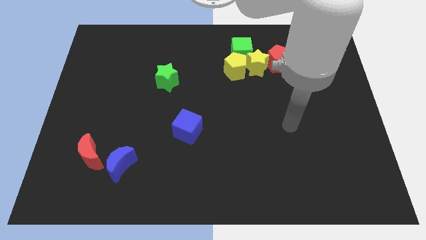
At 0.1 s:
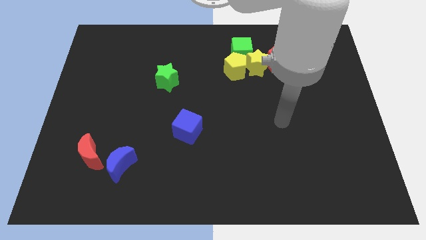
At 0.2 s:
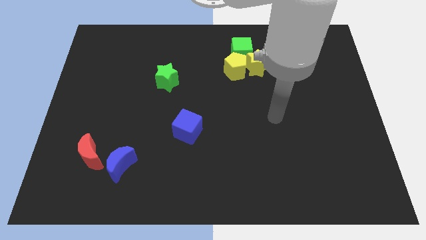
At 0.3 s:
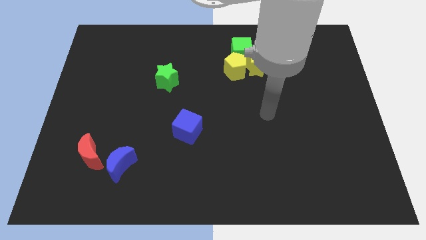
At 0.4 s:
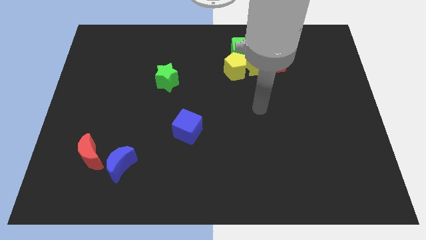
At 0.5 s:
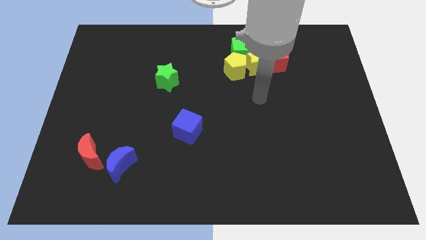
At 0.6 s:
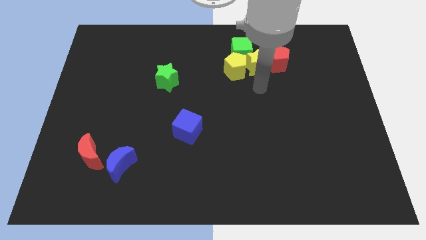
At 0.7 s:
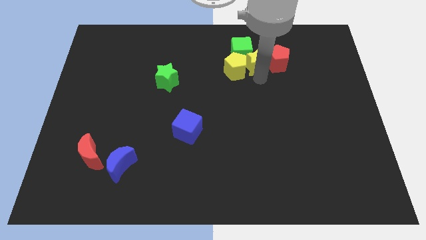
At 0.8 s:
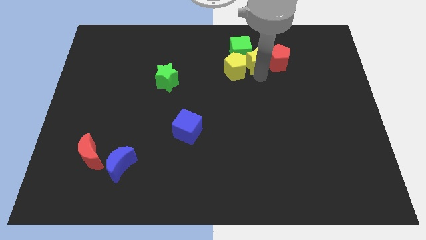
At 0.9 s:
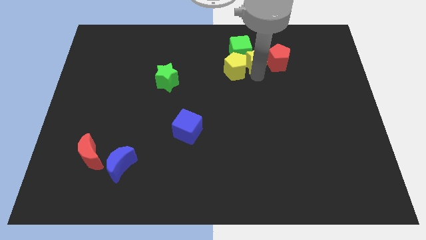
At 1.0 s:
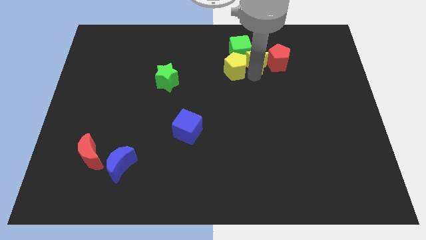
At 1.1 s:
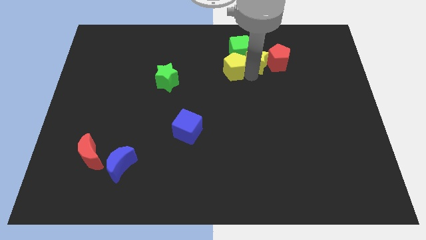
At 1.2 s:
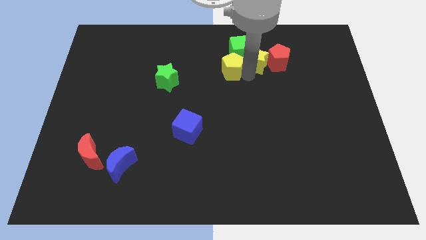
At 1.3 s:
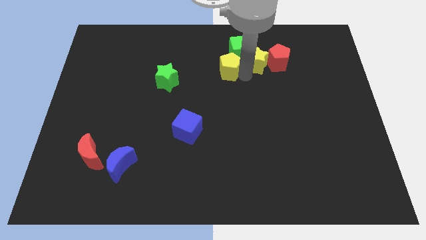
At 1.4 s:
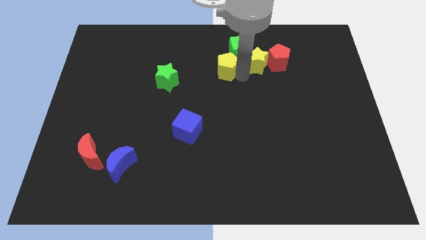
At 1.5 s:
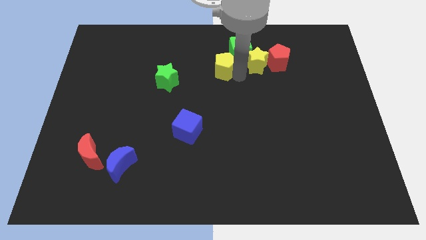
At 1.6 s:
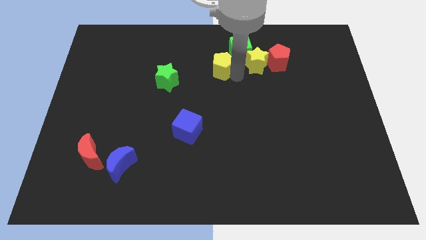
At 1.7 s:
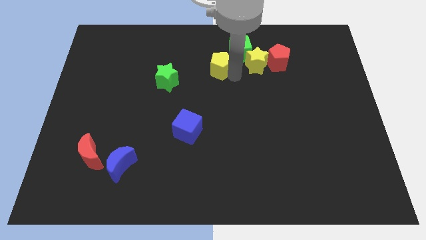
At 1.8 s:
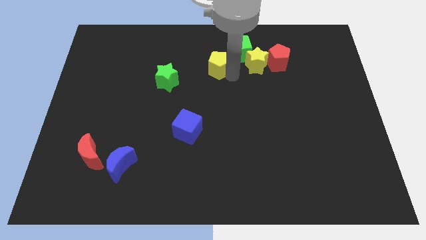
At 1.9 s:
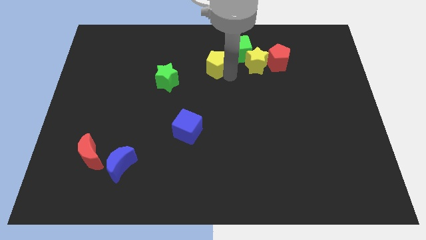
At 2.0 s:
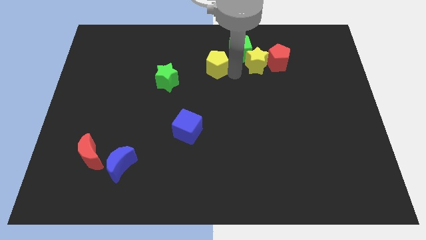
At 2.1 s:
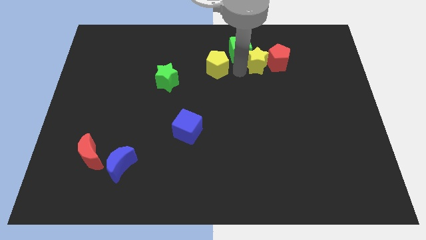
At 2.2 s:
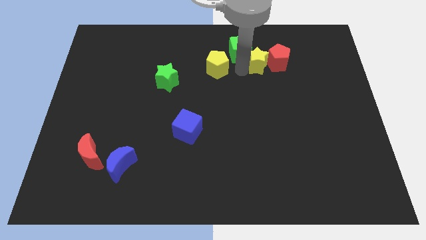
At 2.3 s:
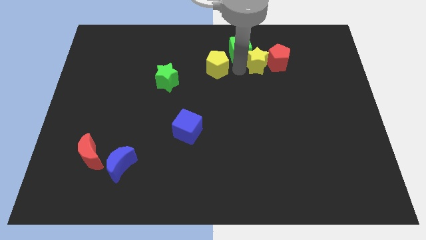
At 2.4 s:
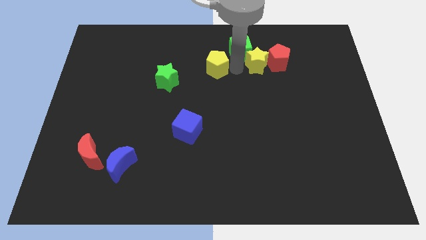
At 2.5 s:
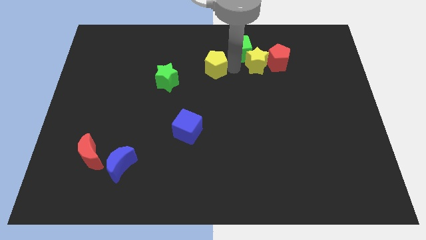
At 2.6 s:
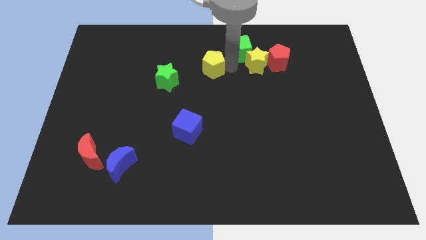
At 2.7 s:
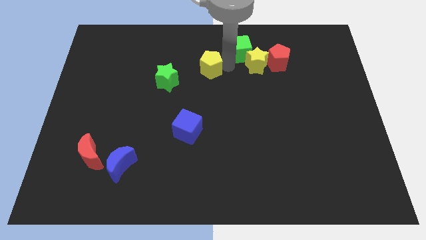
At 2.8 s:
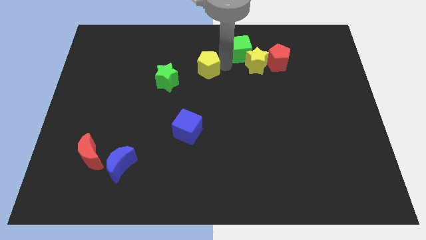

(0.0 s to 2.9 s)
move the yellow pentagon a little bit to the left

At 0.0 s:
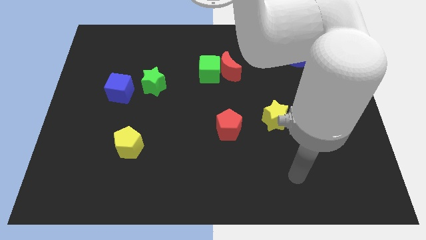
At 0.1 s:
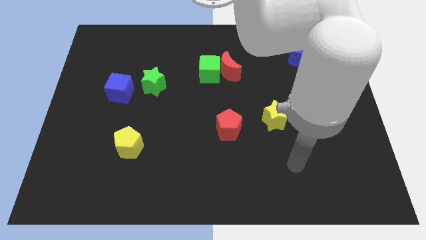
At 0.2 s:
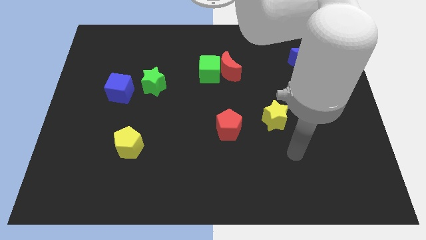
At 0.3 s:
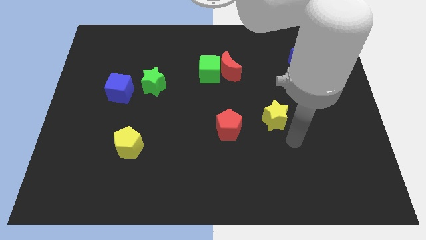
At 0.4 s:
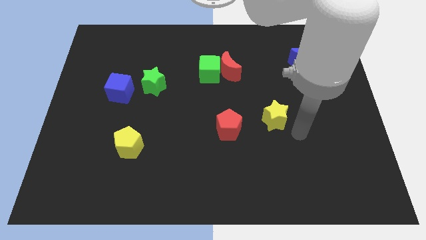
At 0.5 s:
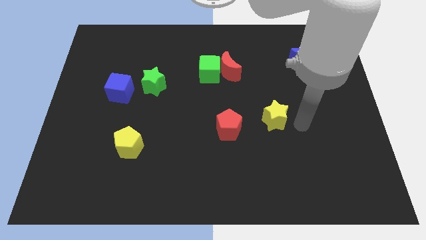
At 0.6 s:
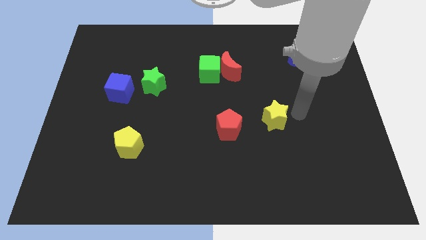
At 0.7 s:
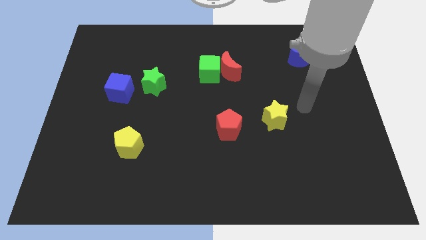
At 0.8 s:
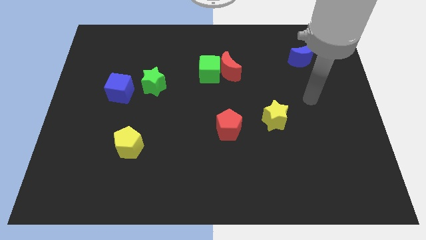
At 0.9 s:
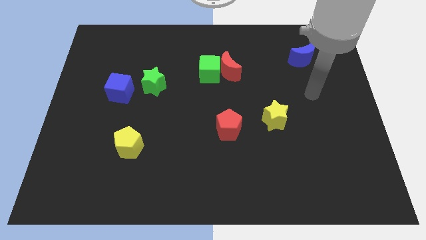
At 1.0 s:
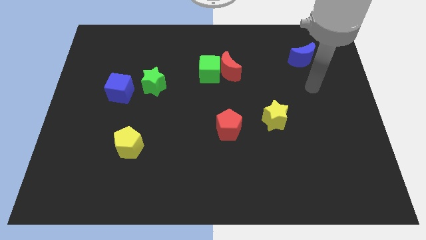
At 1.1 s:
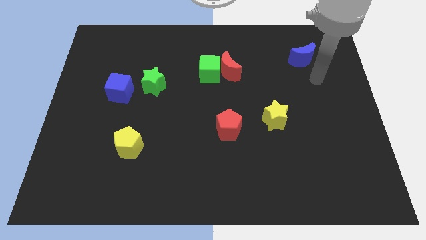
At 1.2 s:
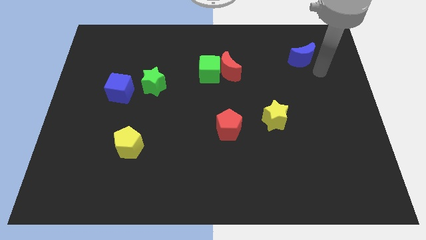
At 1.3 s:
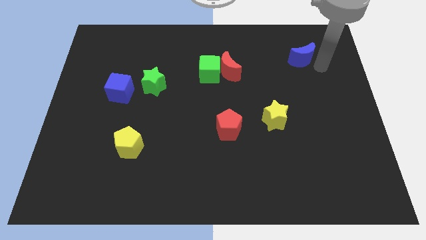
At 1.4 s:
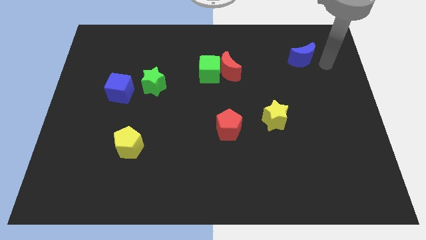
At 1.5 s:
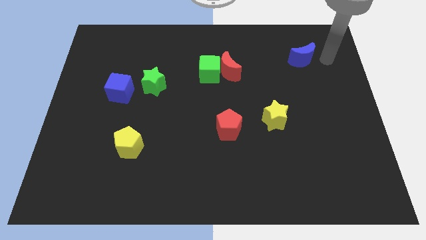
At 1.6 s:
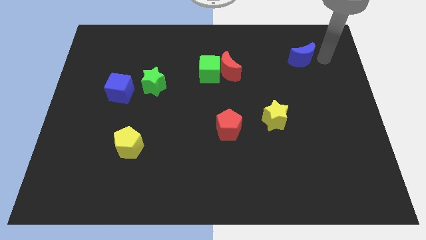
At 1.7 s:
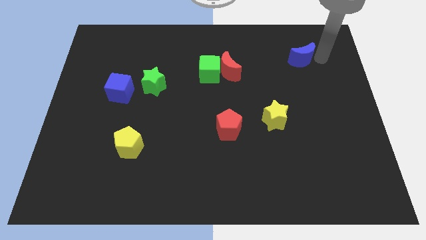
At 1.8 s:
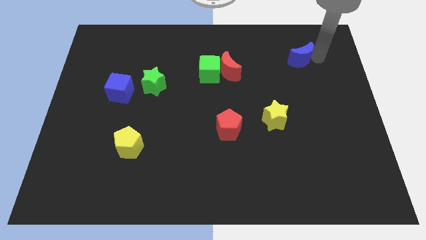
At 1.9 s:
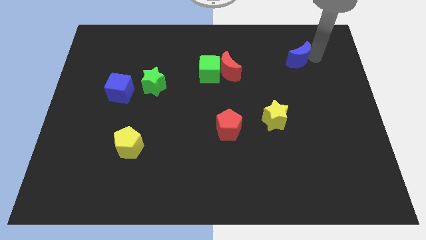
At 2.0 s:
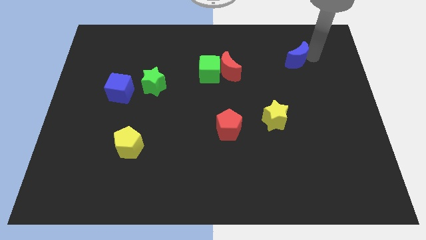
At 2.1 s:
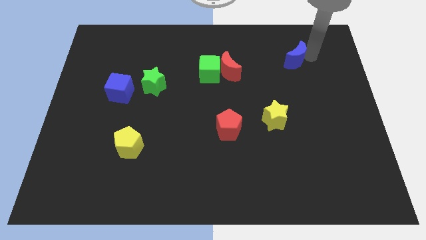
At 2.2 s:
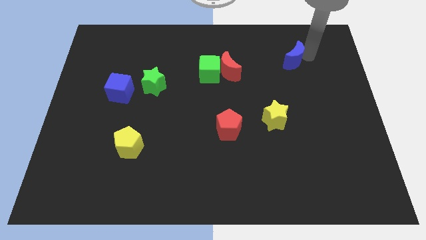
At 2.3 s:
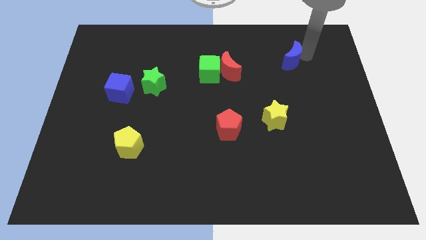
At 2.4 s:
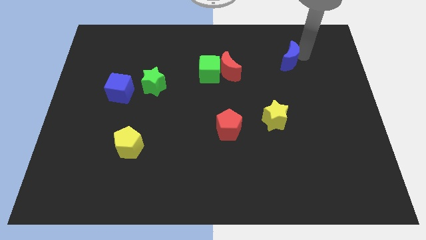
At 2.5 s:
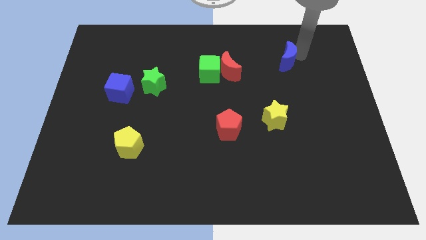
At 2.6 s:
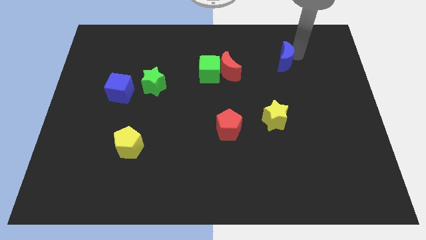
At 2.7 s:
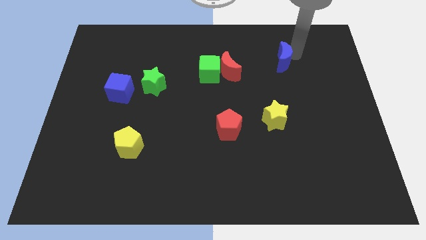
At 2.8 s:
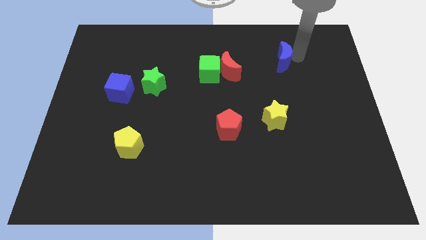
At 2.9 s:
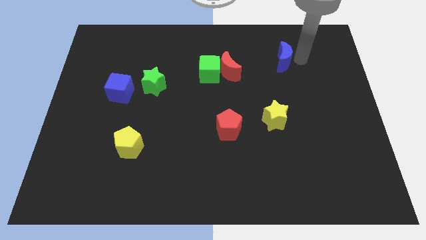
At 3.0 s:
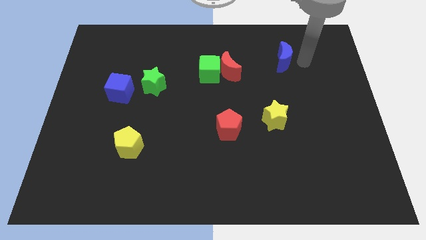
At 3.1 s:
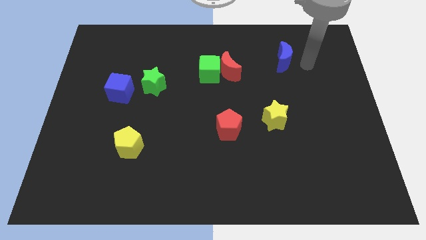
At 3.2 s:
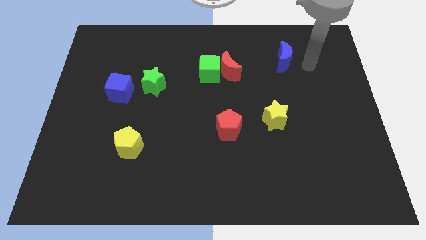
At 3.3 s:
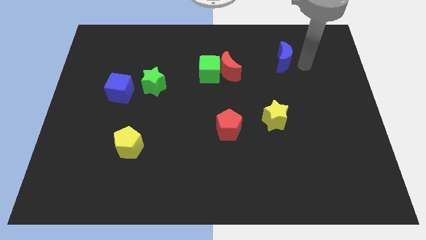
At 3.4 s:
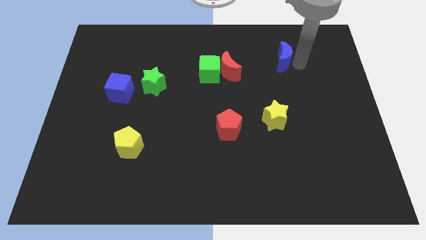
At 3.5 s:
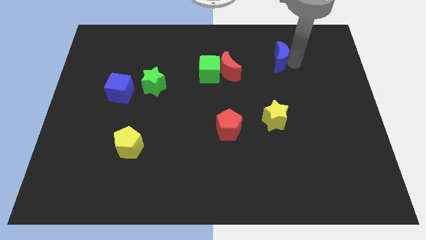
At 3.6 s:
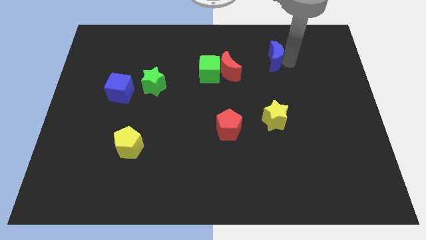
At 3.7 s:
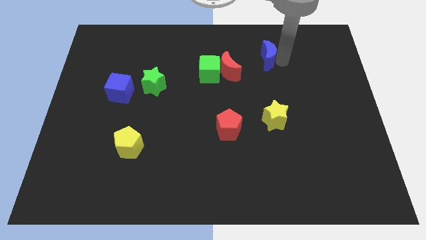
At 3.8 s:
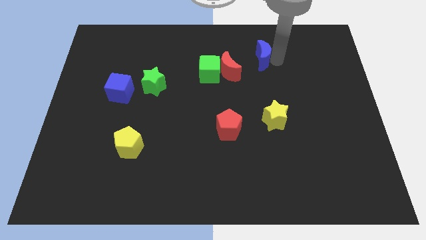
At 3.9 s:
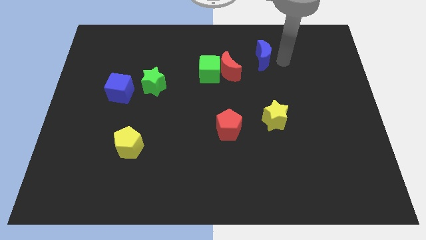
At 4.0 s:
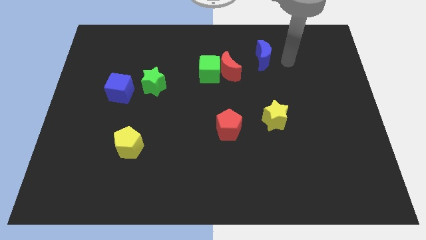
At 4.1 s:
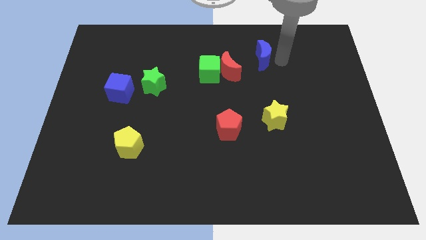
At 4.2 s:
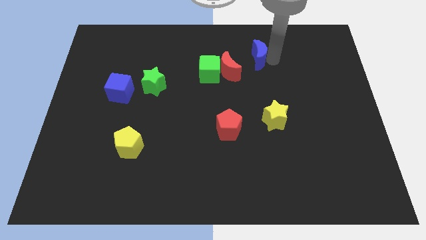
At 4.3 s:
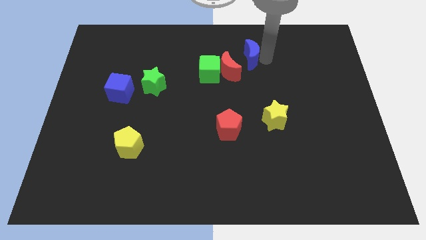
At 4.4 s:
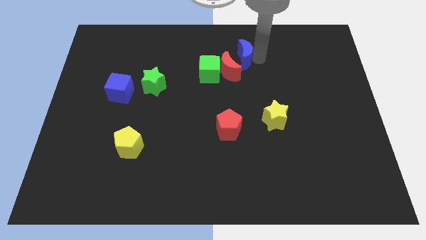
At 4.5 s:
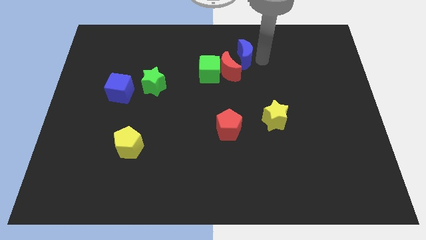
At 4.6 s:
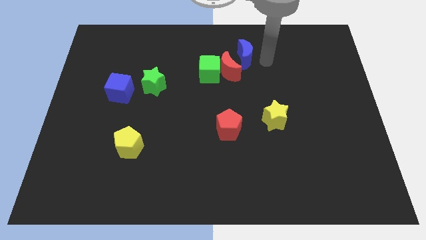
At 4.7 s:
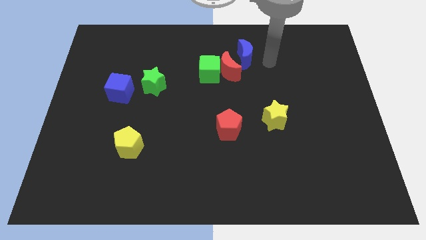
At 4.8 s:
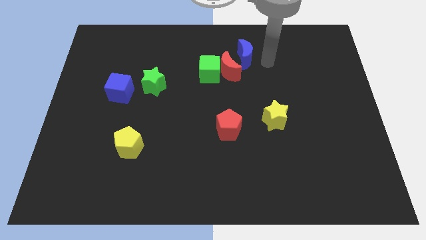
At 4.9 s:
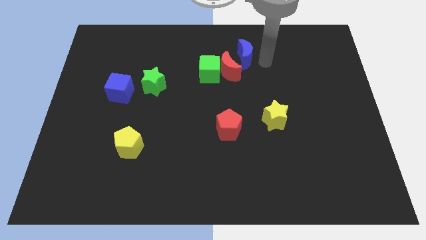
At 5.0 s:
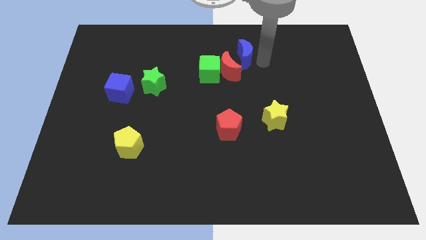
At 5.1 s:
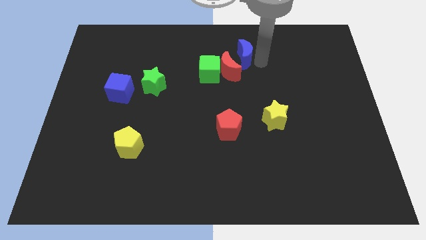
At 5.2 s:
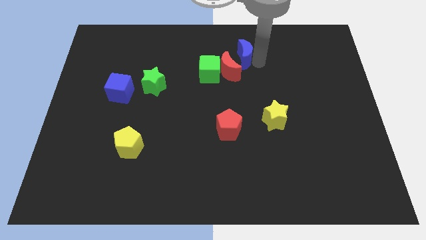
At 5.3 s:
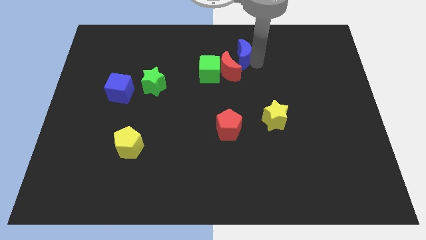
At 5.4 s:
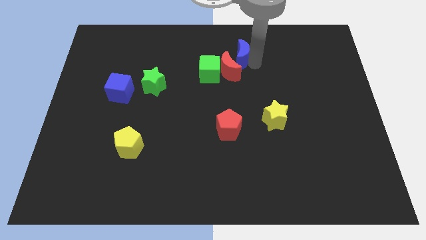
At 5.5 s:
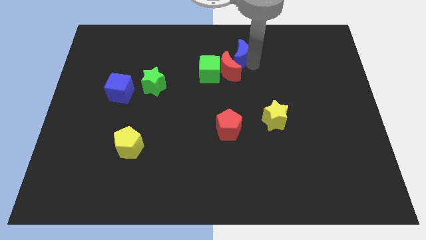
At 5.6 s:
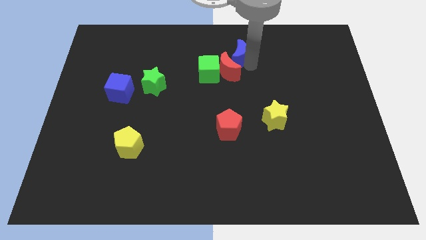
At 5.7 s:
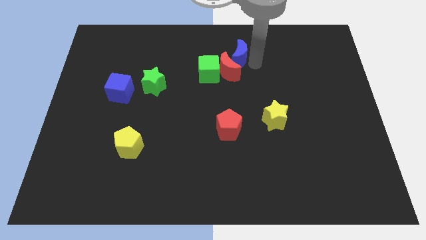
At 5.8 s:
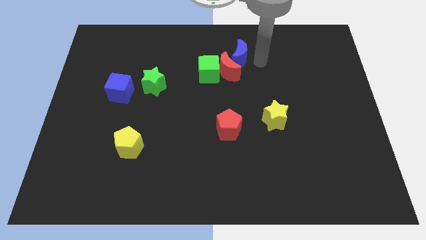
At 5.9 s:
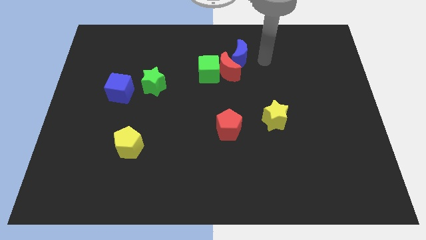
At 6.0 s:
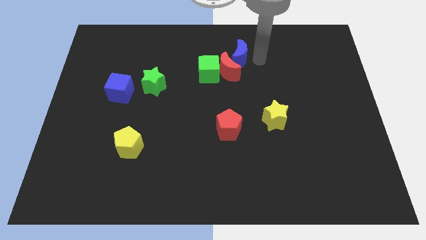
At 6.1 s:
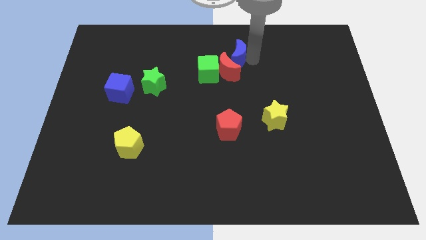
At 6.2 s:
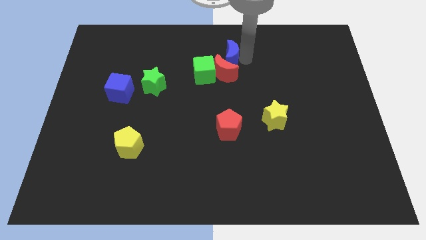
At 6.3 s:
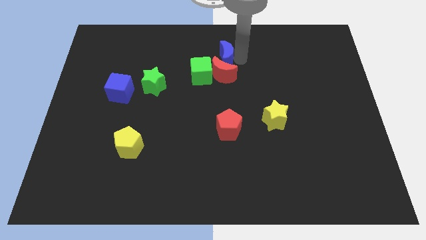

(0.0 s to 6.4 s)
slide the blue moon left
